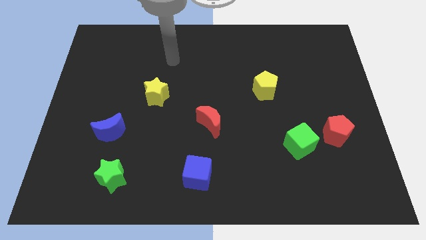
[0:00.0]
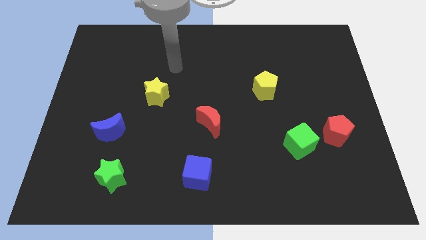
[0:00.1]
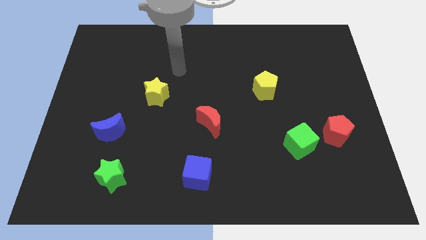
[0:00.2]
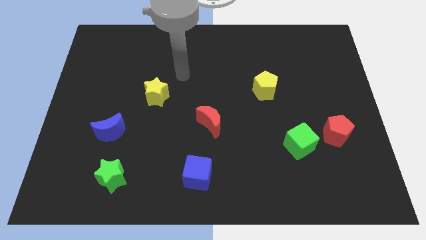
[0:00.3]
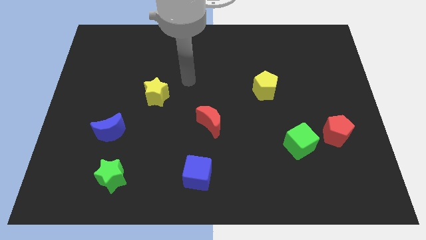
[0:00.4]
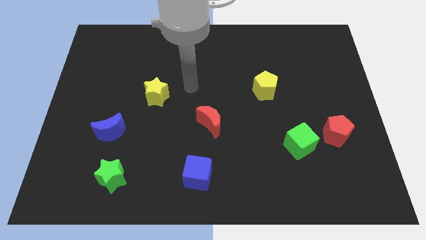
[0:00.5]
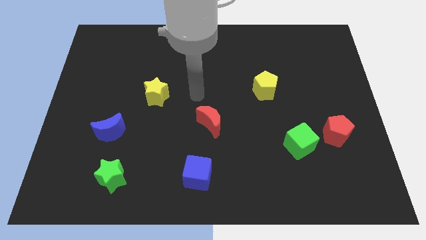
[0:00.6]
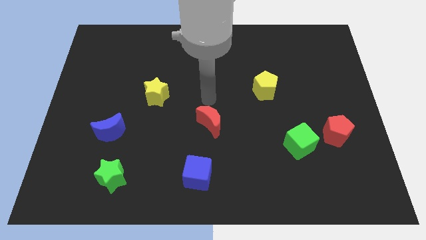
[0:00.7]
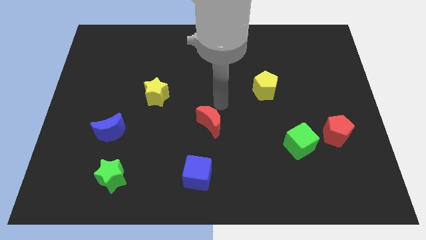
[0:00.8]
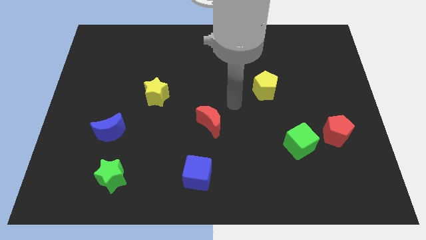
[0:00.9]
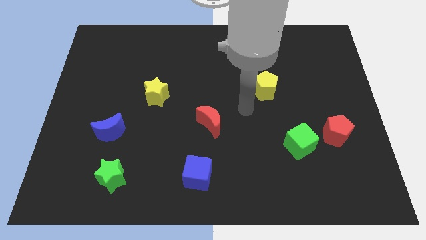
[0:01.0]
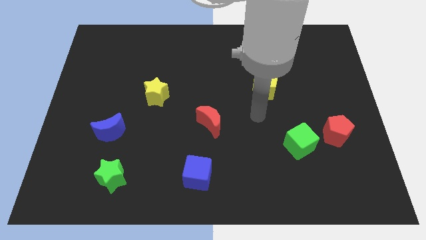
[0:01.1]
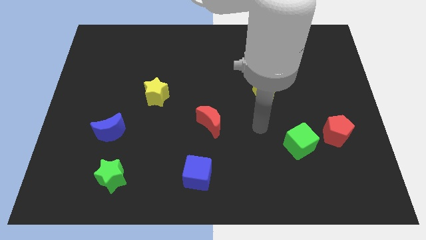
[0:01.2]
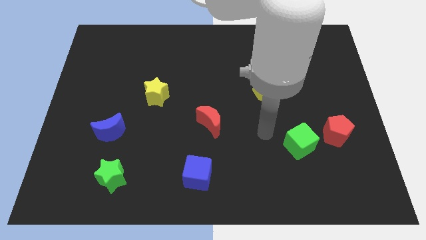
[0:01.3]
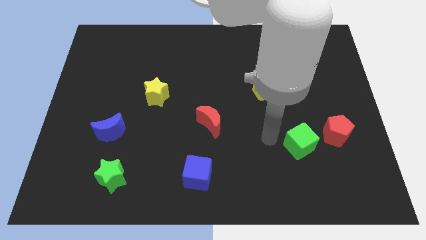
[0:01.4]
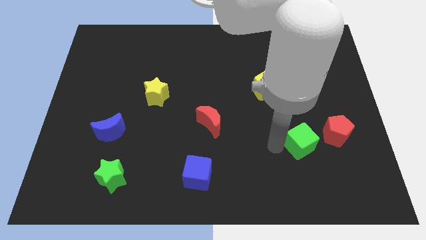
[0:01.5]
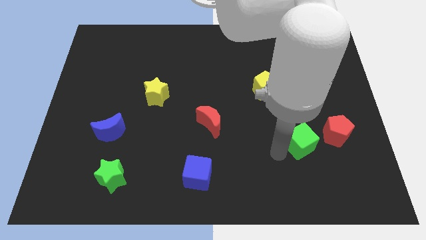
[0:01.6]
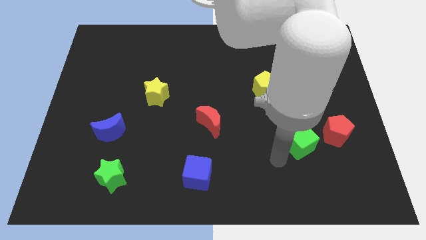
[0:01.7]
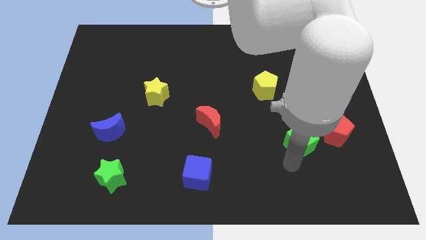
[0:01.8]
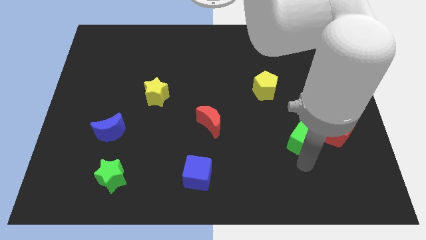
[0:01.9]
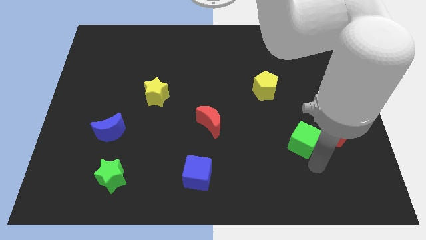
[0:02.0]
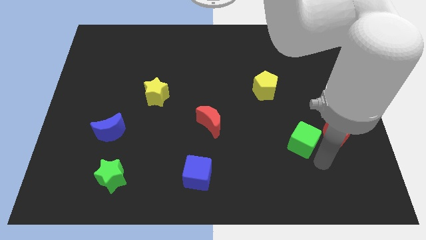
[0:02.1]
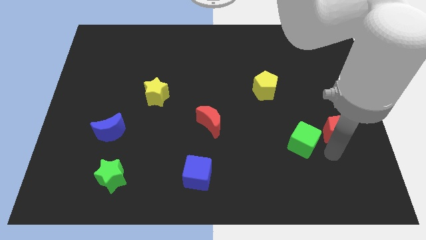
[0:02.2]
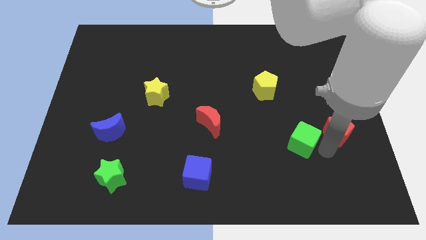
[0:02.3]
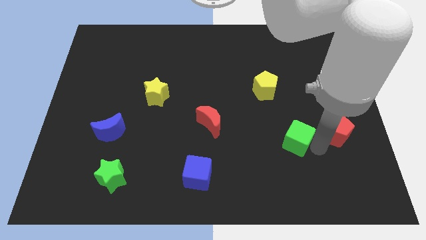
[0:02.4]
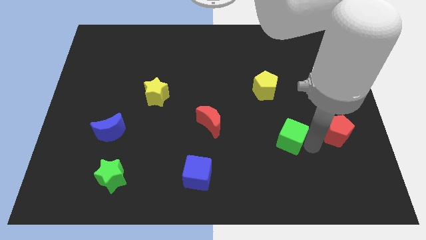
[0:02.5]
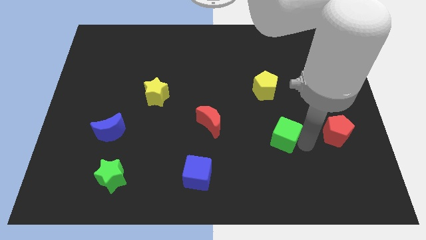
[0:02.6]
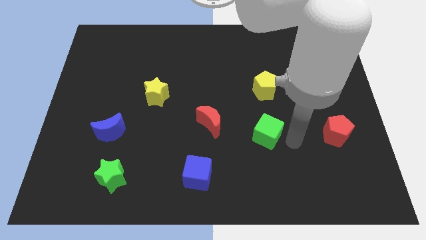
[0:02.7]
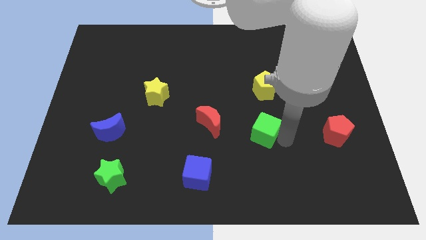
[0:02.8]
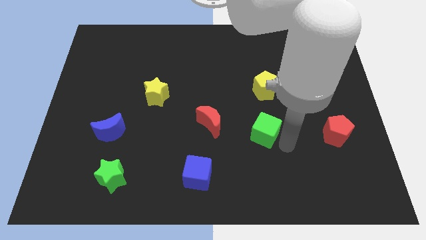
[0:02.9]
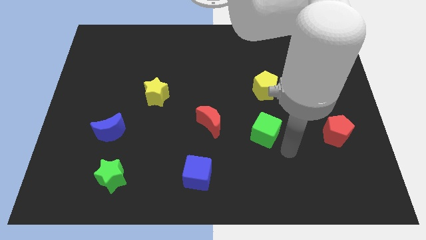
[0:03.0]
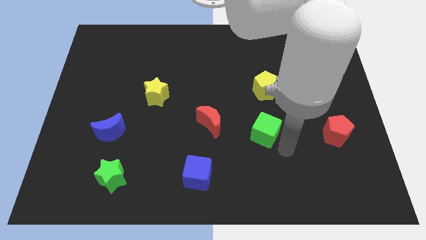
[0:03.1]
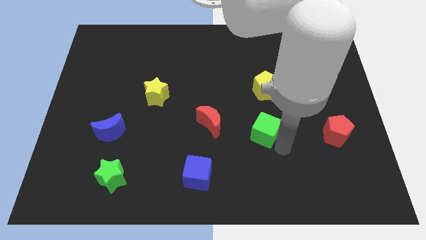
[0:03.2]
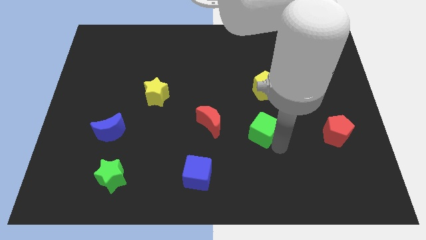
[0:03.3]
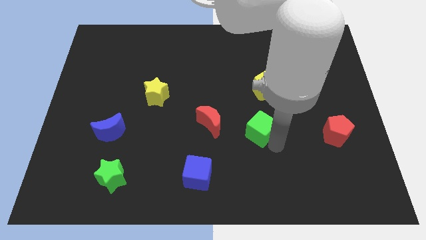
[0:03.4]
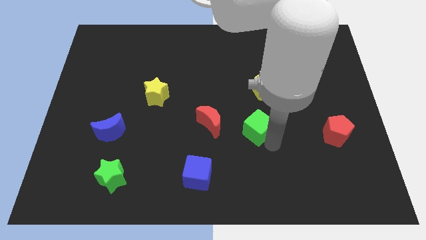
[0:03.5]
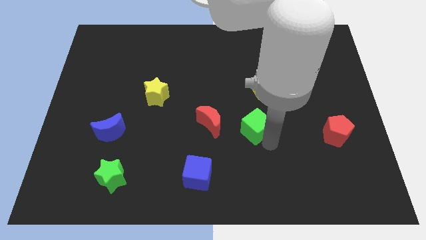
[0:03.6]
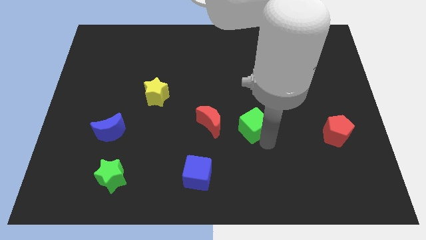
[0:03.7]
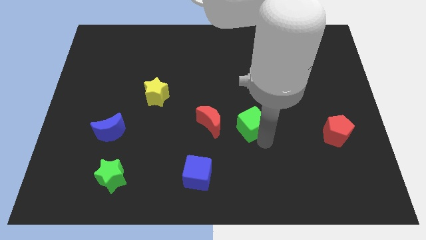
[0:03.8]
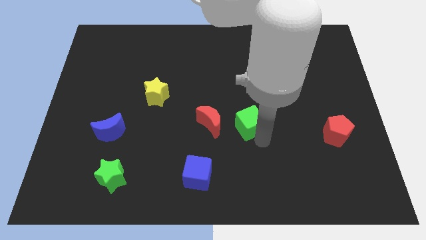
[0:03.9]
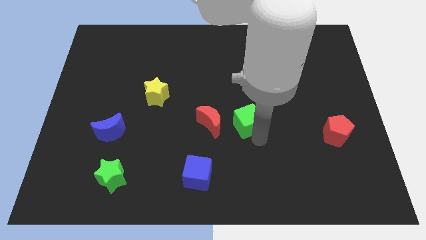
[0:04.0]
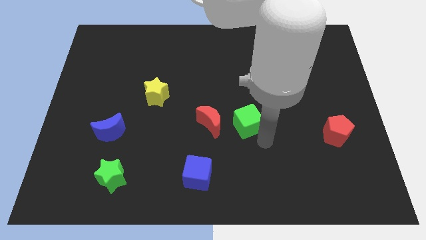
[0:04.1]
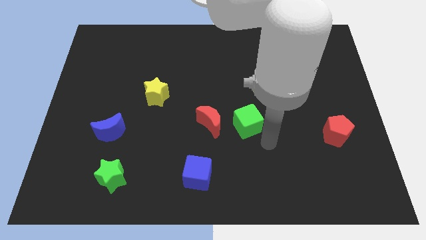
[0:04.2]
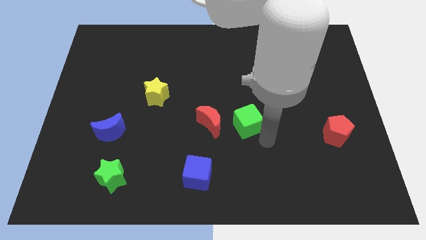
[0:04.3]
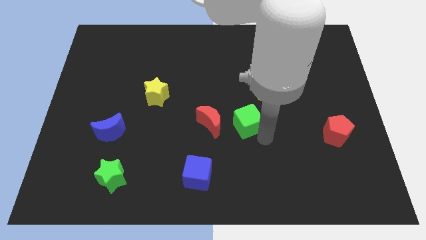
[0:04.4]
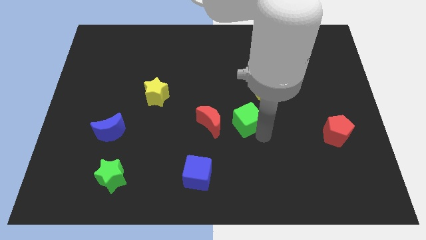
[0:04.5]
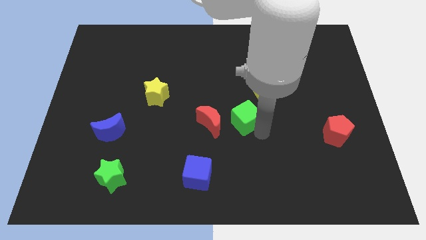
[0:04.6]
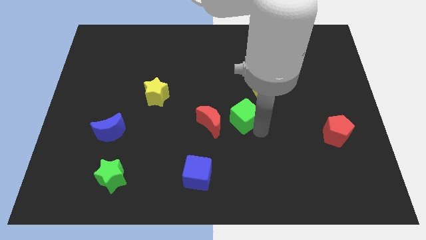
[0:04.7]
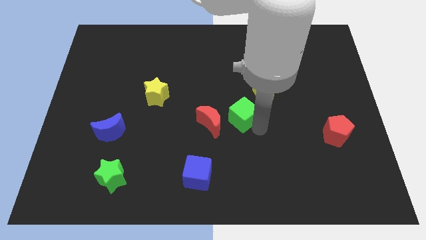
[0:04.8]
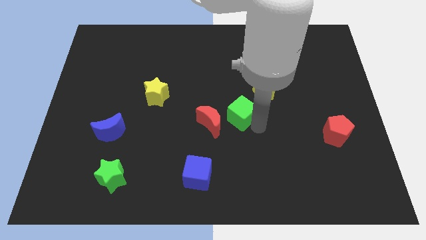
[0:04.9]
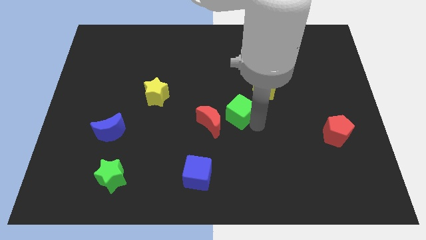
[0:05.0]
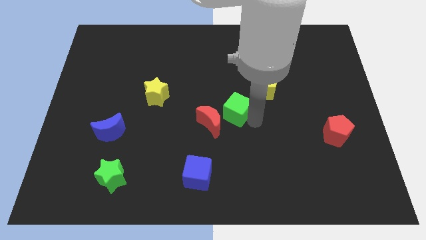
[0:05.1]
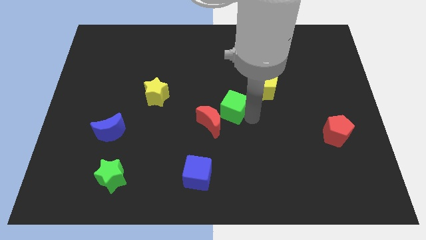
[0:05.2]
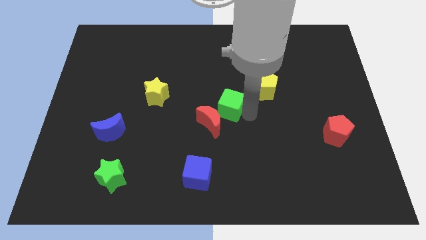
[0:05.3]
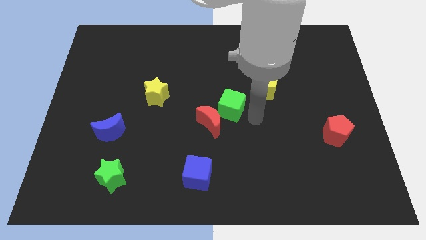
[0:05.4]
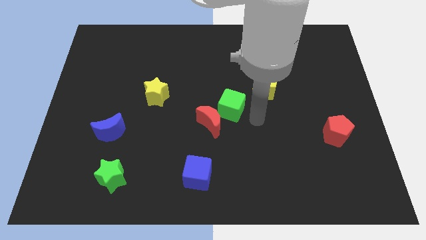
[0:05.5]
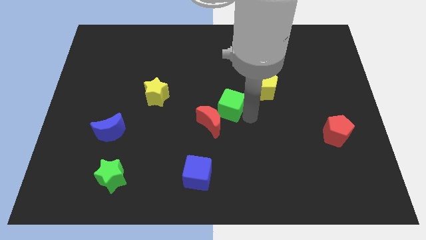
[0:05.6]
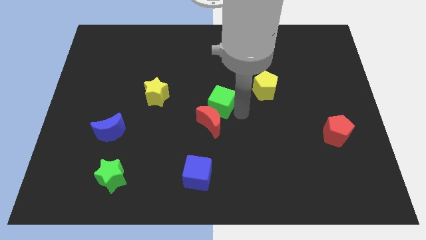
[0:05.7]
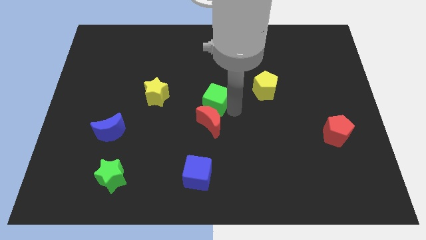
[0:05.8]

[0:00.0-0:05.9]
slide the green cube just right of the yellow star

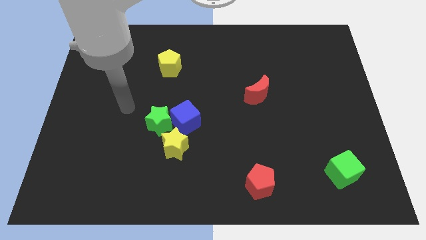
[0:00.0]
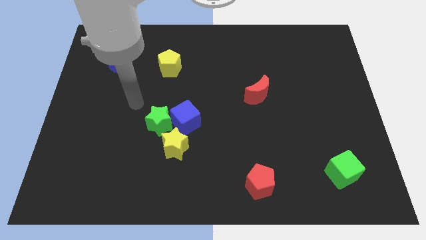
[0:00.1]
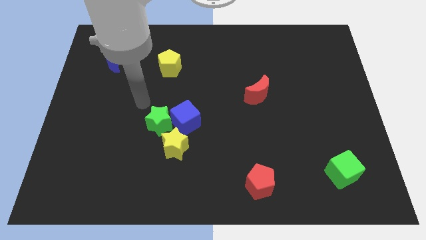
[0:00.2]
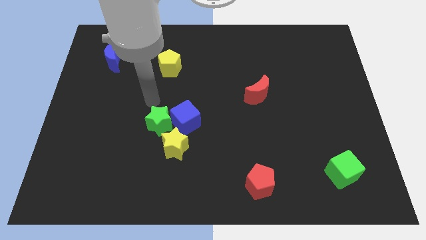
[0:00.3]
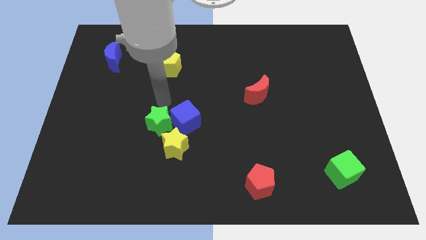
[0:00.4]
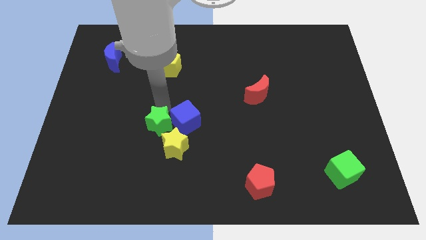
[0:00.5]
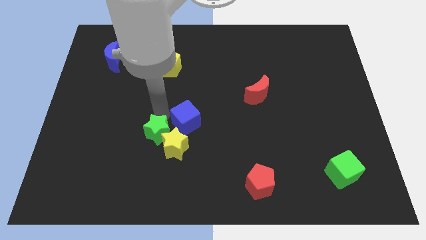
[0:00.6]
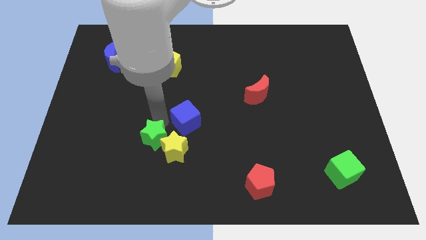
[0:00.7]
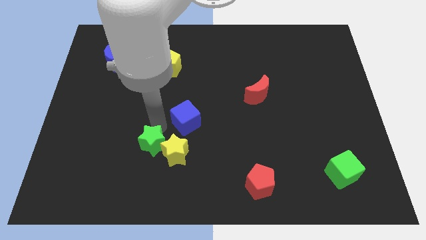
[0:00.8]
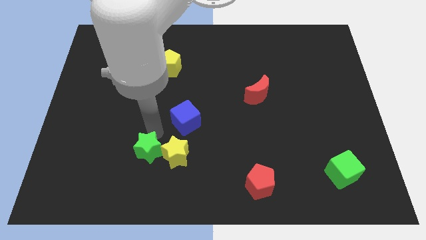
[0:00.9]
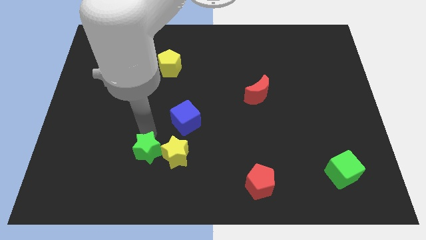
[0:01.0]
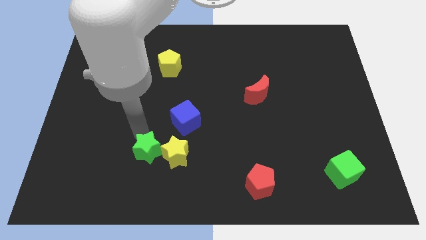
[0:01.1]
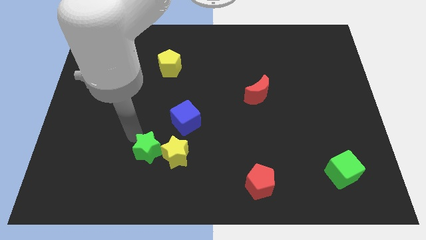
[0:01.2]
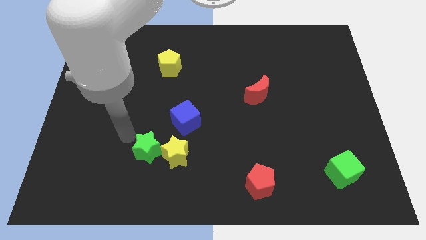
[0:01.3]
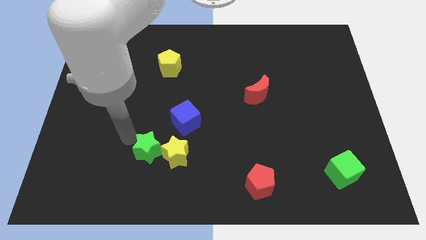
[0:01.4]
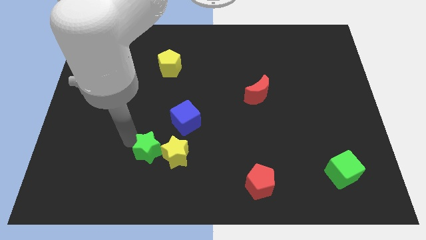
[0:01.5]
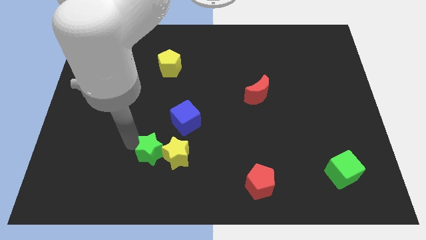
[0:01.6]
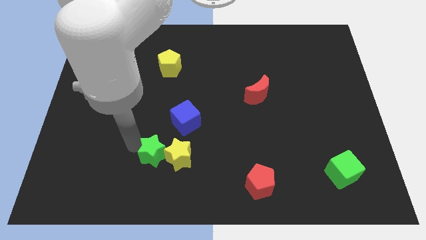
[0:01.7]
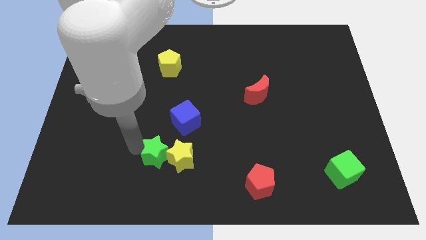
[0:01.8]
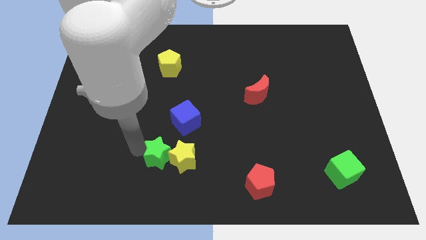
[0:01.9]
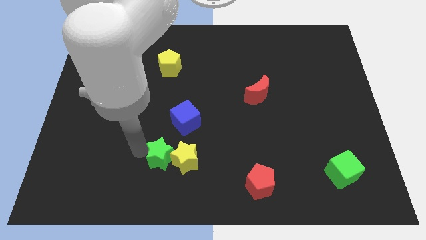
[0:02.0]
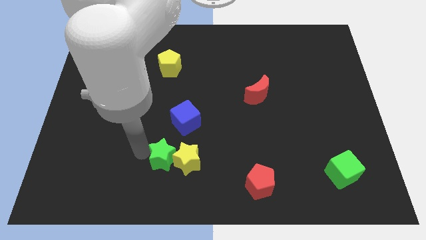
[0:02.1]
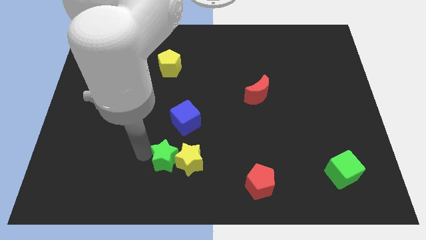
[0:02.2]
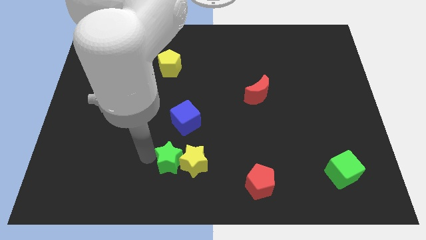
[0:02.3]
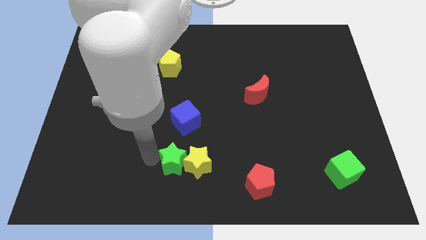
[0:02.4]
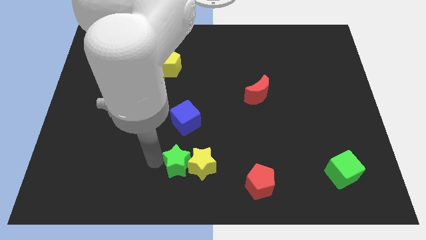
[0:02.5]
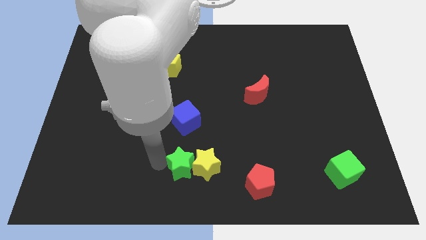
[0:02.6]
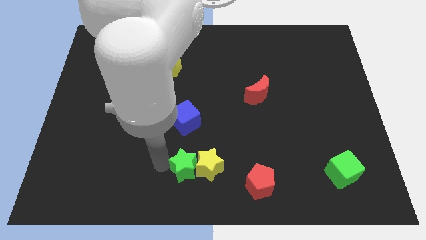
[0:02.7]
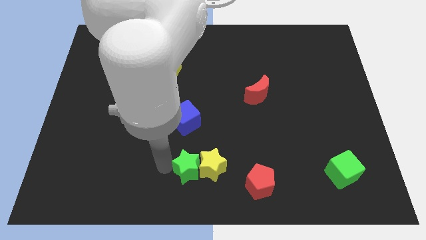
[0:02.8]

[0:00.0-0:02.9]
put the green star to the left side of the red pentagon
